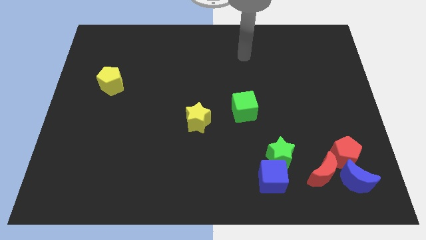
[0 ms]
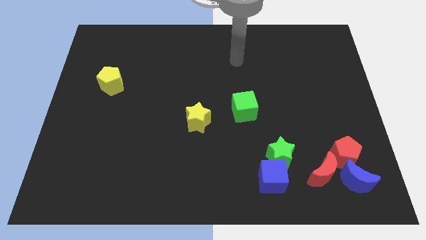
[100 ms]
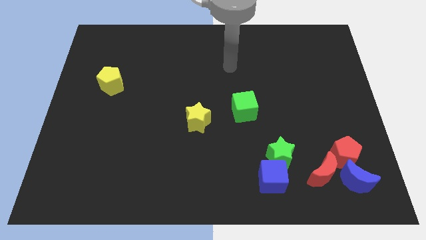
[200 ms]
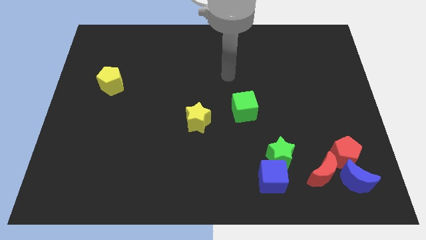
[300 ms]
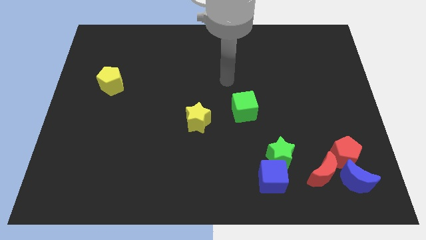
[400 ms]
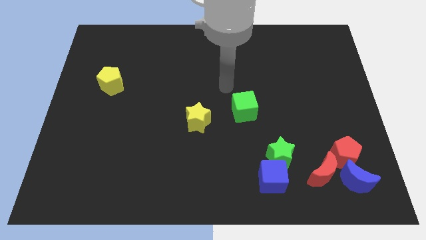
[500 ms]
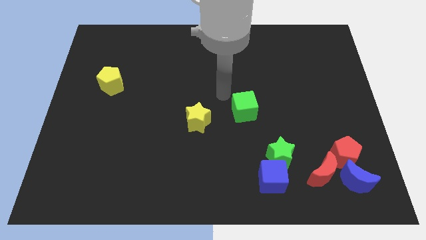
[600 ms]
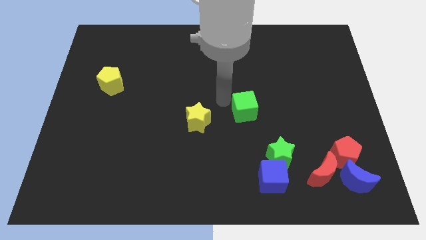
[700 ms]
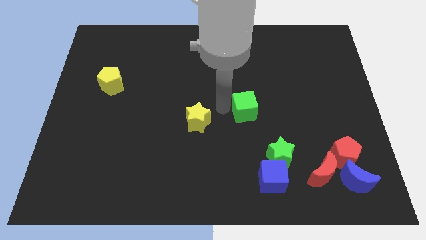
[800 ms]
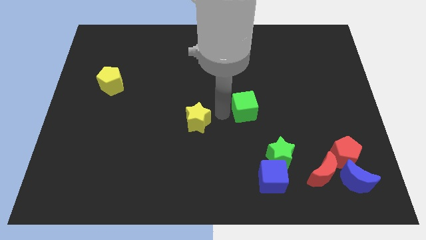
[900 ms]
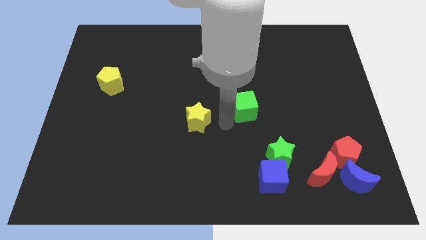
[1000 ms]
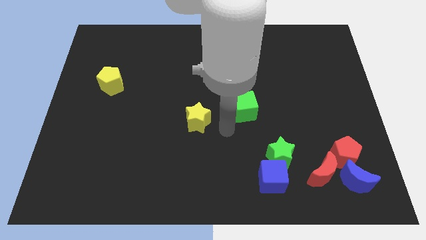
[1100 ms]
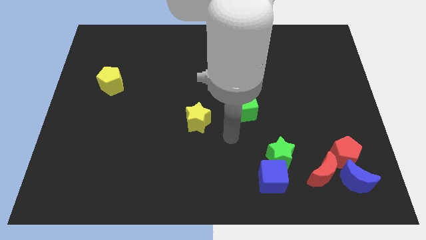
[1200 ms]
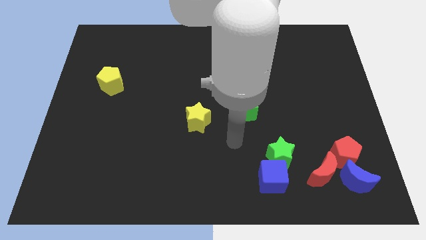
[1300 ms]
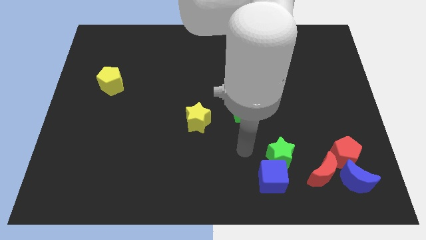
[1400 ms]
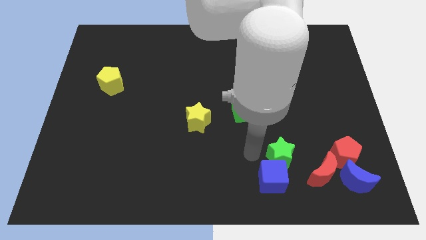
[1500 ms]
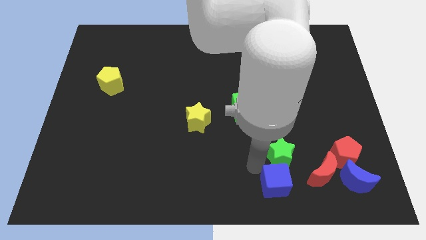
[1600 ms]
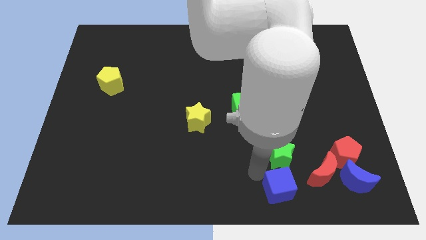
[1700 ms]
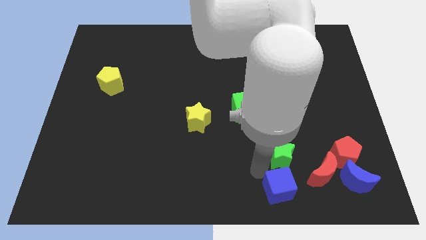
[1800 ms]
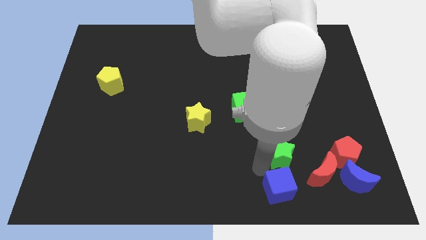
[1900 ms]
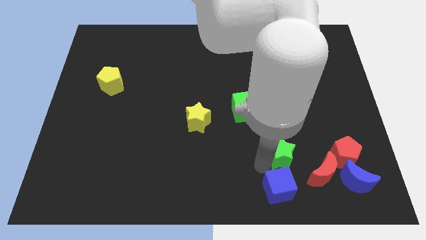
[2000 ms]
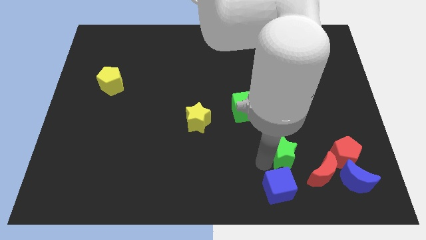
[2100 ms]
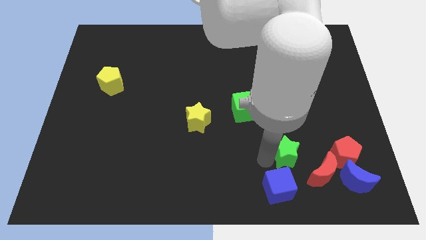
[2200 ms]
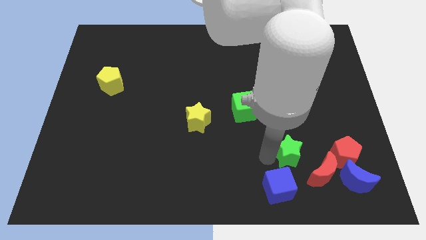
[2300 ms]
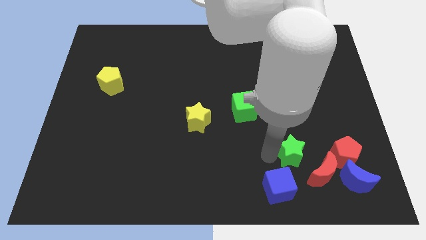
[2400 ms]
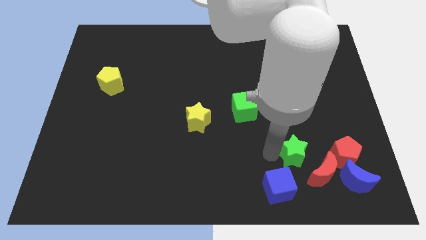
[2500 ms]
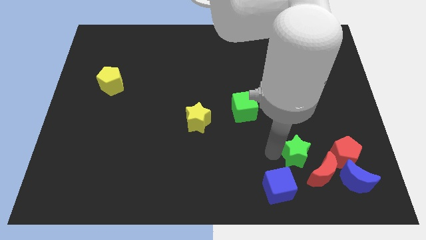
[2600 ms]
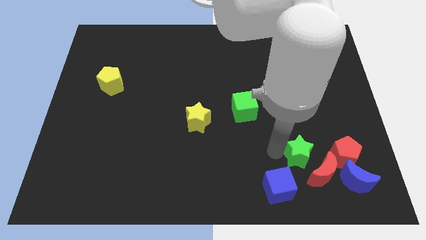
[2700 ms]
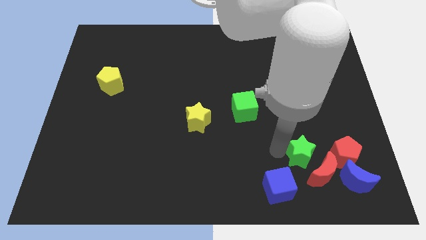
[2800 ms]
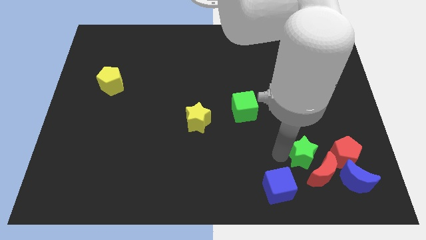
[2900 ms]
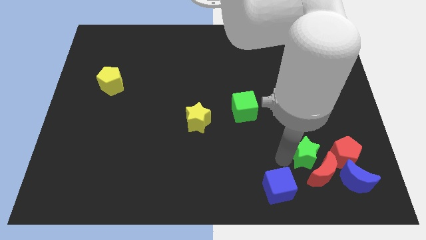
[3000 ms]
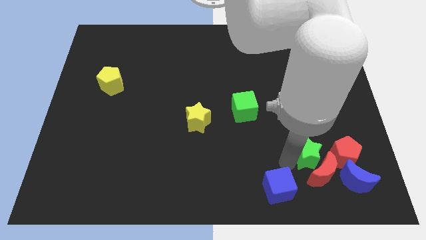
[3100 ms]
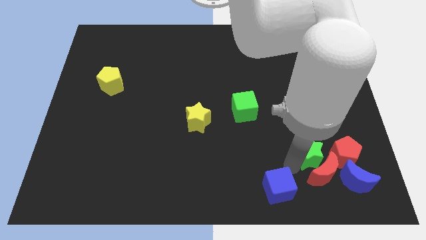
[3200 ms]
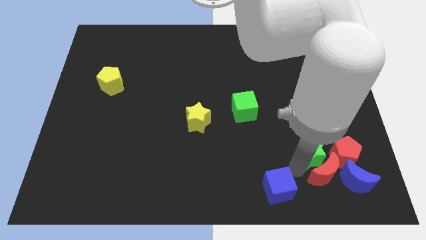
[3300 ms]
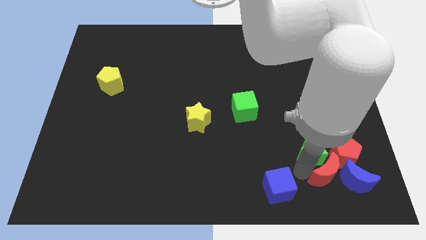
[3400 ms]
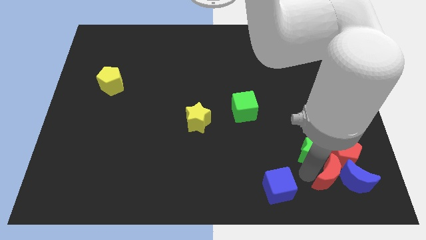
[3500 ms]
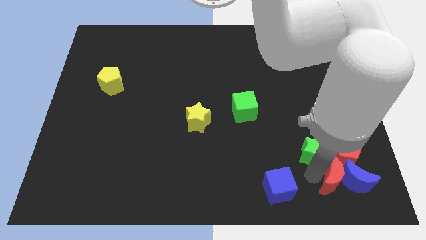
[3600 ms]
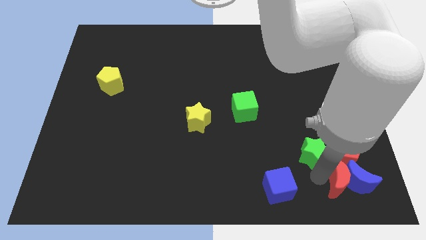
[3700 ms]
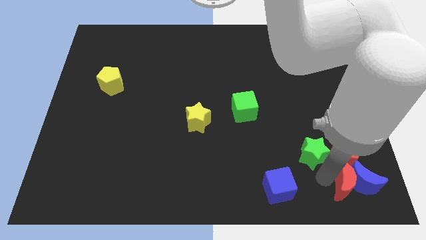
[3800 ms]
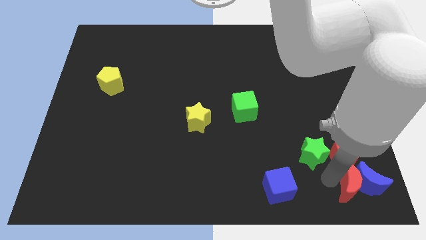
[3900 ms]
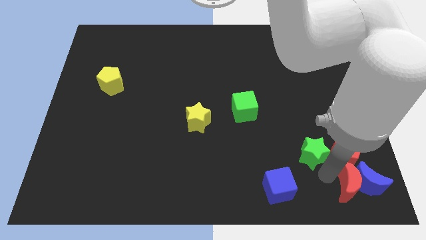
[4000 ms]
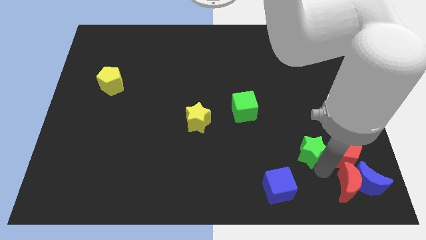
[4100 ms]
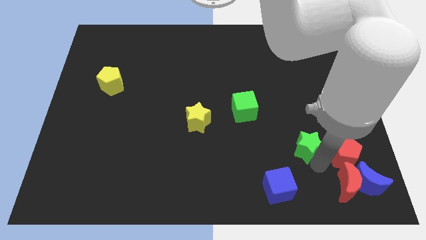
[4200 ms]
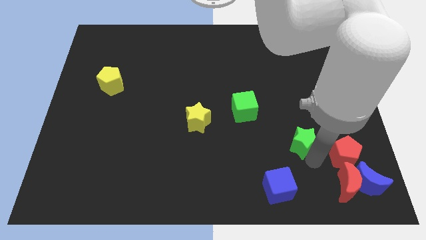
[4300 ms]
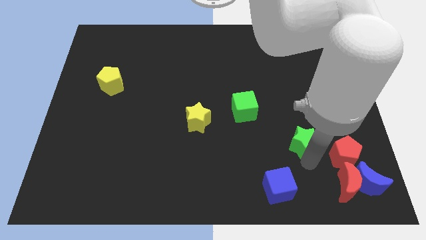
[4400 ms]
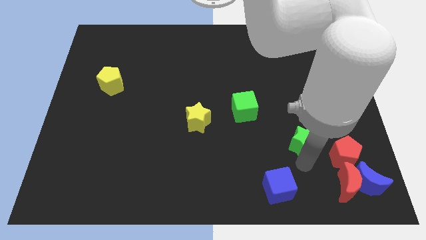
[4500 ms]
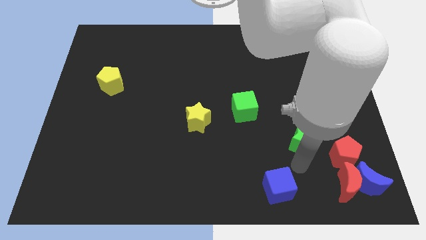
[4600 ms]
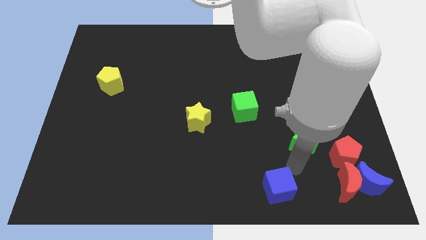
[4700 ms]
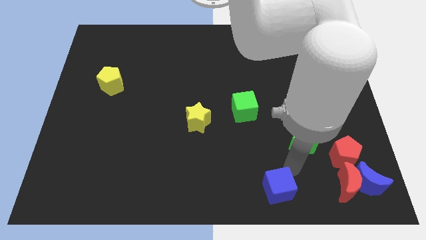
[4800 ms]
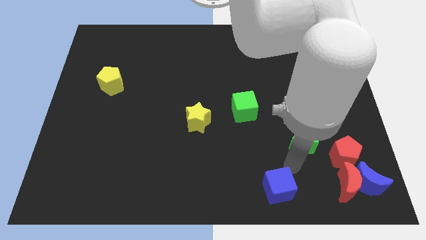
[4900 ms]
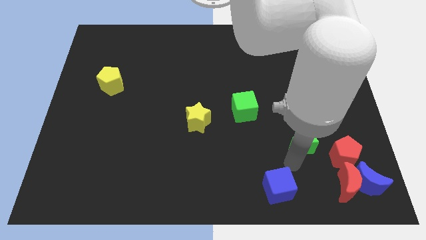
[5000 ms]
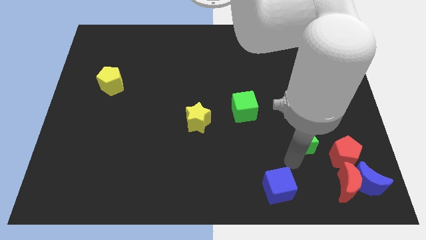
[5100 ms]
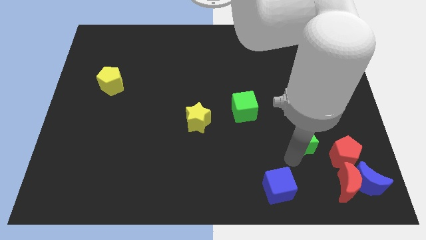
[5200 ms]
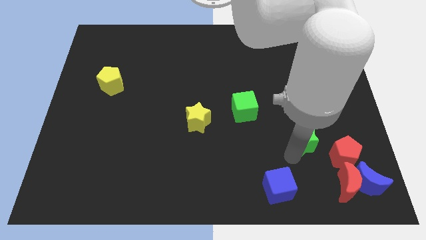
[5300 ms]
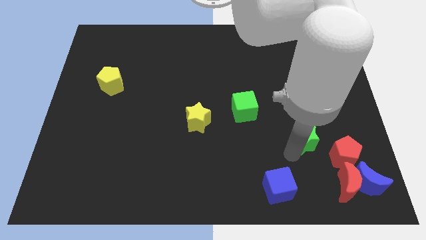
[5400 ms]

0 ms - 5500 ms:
slightly slide the green star upwards and to the right diagonally

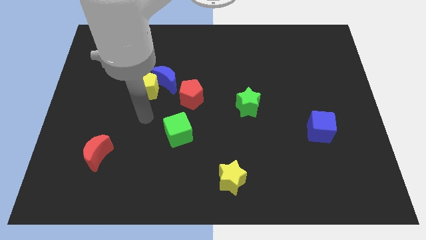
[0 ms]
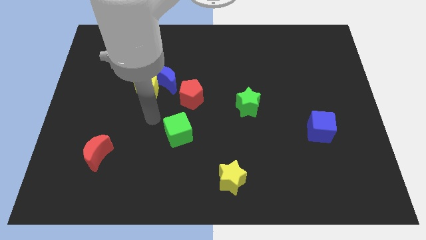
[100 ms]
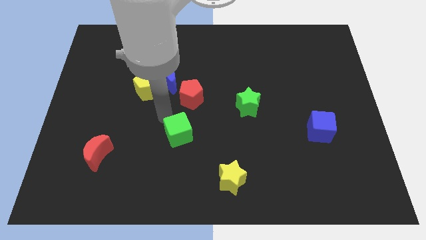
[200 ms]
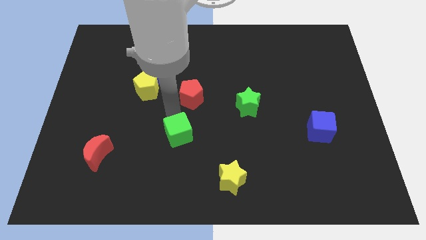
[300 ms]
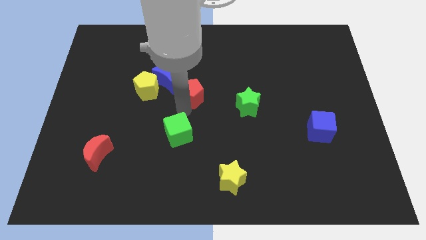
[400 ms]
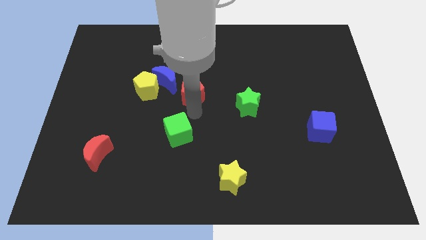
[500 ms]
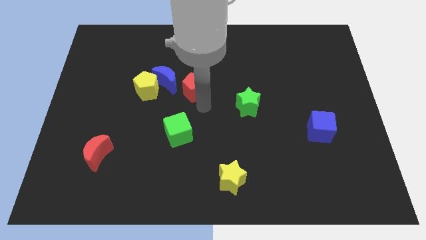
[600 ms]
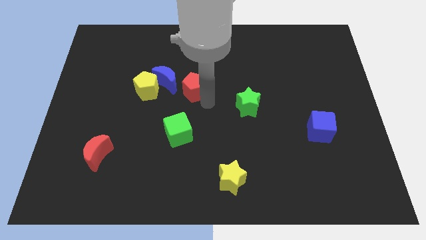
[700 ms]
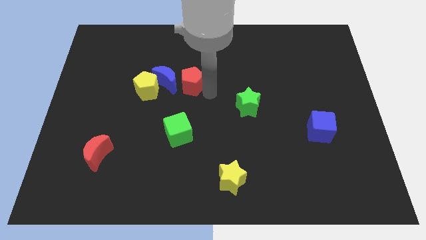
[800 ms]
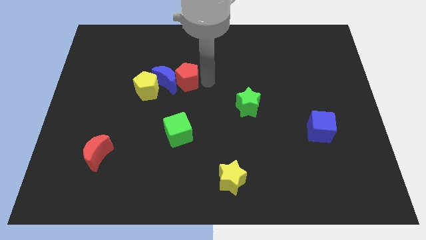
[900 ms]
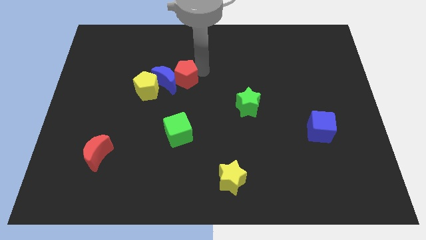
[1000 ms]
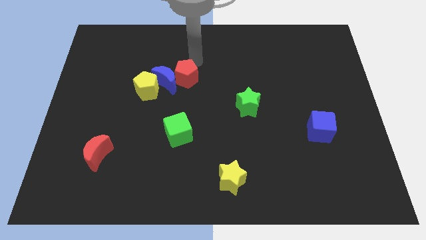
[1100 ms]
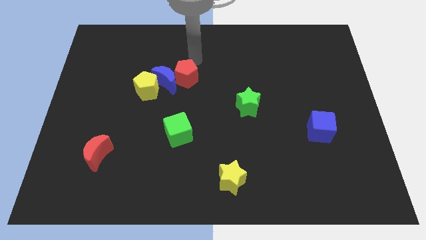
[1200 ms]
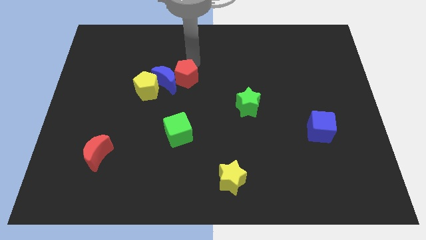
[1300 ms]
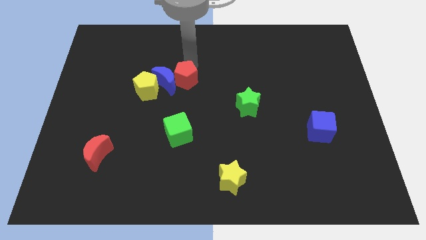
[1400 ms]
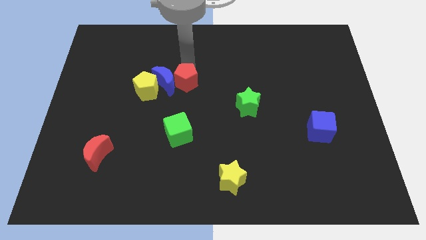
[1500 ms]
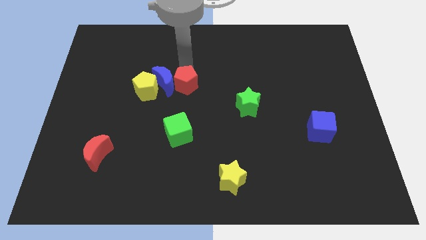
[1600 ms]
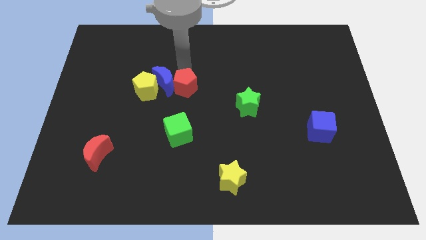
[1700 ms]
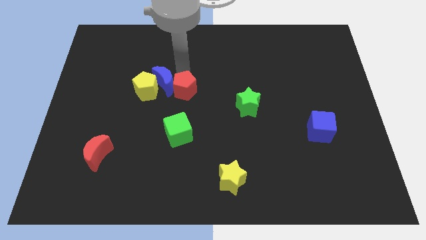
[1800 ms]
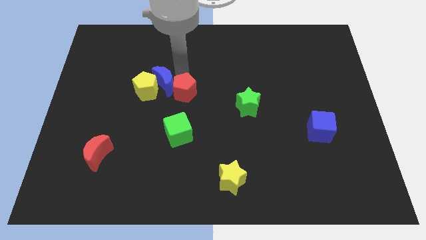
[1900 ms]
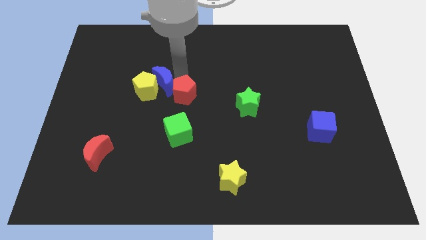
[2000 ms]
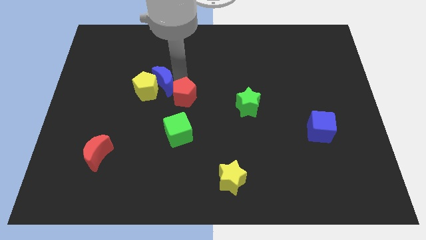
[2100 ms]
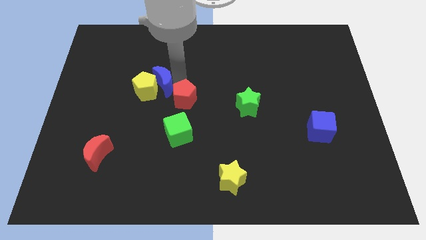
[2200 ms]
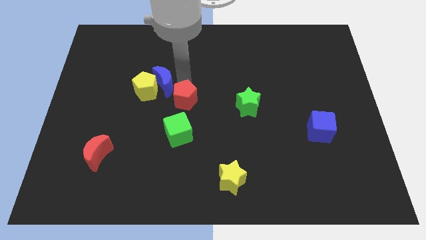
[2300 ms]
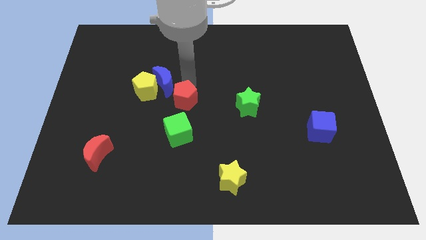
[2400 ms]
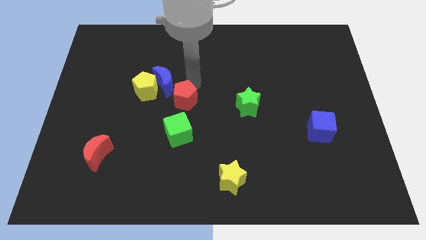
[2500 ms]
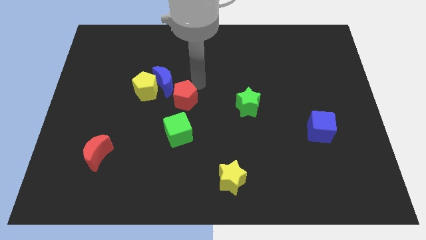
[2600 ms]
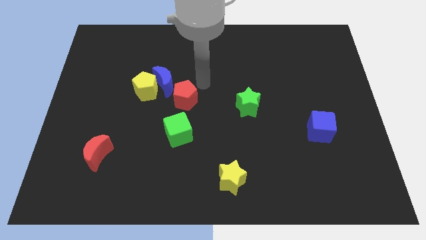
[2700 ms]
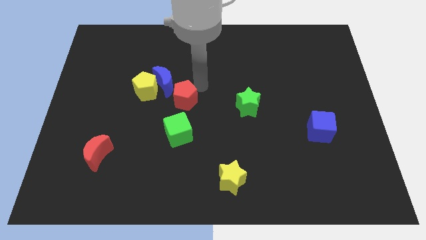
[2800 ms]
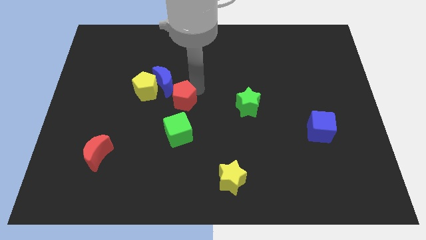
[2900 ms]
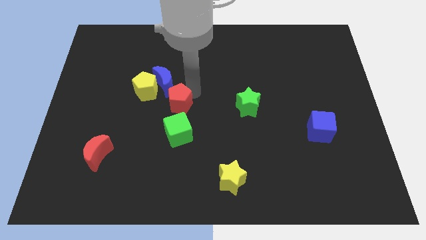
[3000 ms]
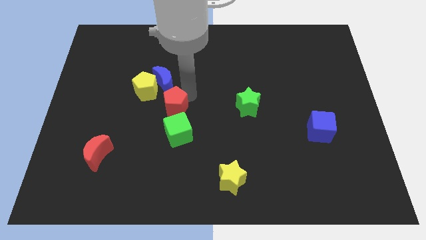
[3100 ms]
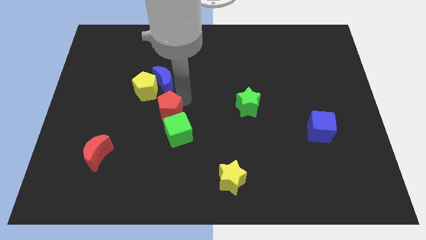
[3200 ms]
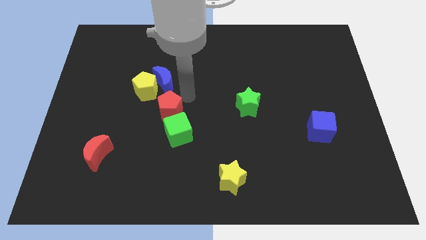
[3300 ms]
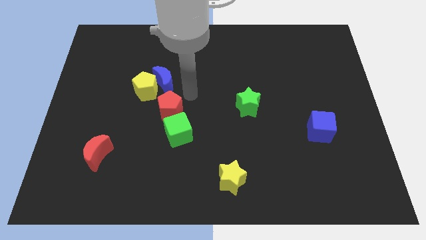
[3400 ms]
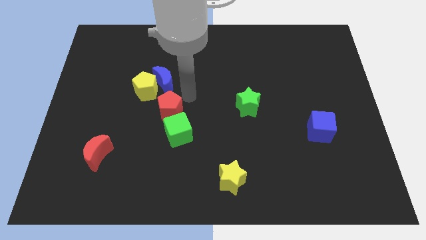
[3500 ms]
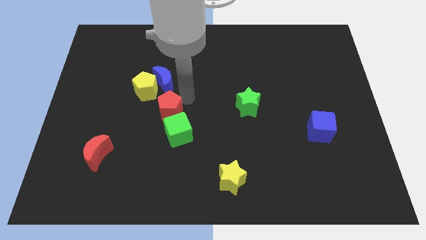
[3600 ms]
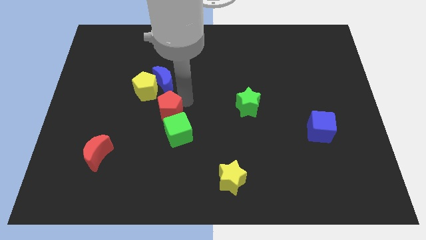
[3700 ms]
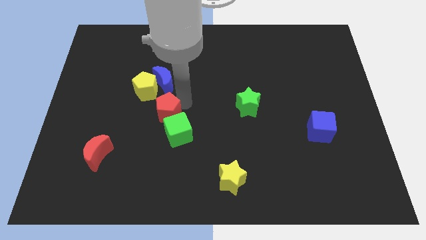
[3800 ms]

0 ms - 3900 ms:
slide the red pentagon a little down and left
